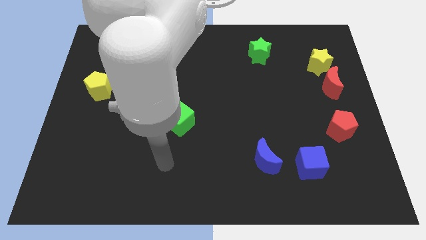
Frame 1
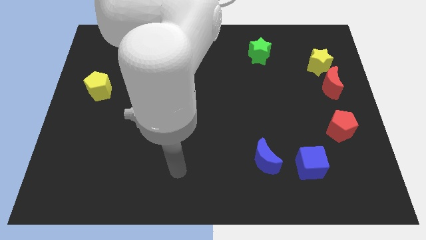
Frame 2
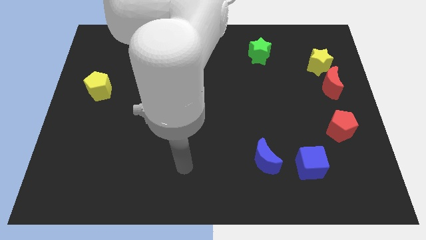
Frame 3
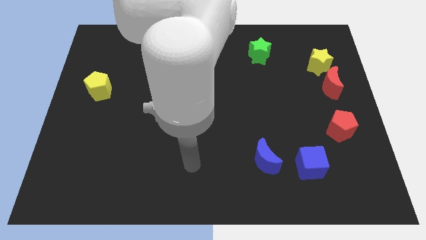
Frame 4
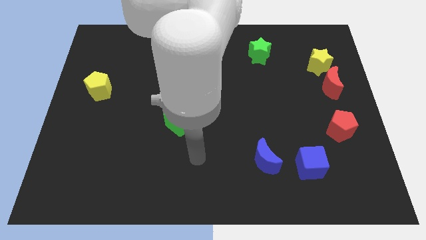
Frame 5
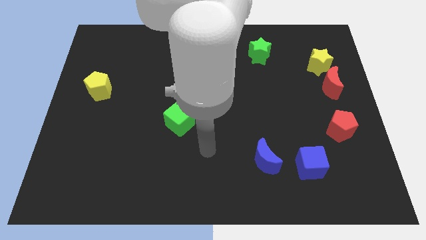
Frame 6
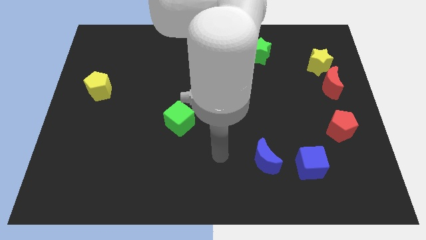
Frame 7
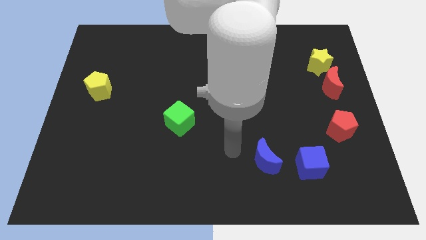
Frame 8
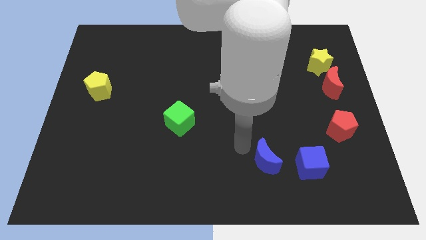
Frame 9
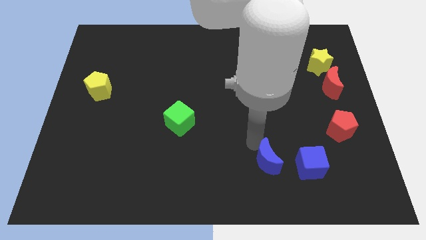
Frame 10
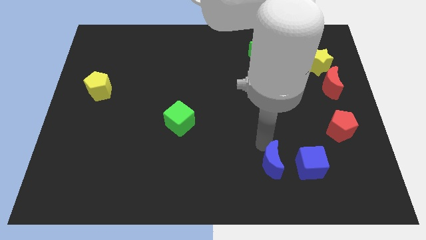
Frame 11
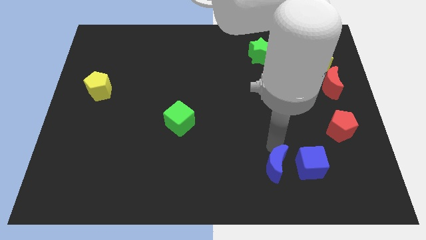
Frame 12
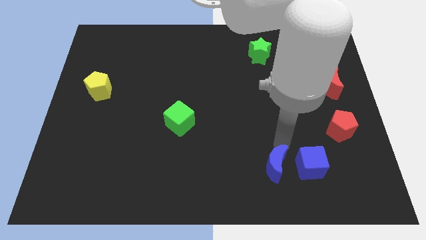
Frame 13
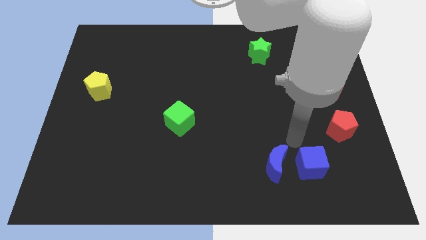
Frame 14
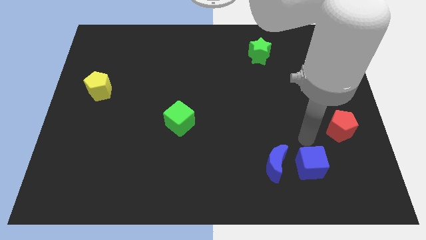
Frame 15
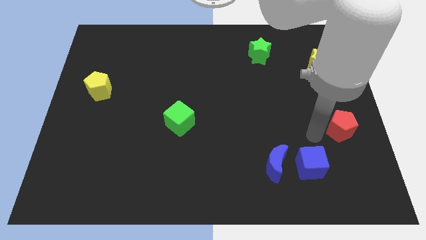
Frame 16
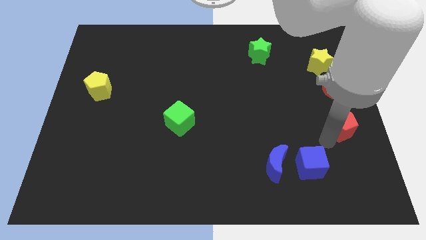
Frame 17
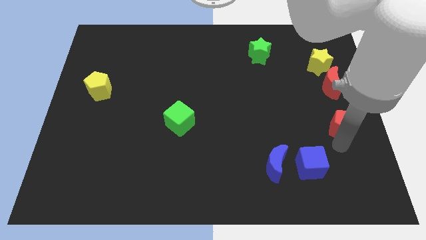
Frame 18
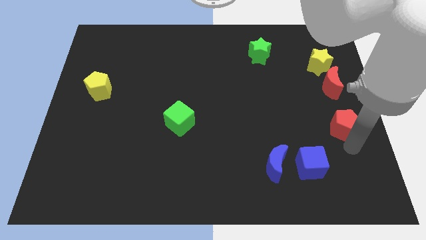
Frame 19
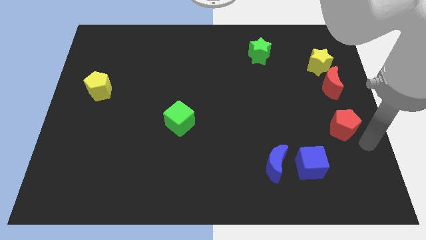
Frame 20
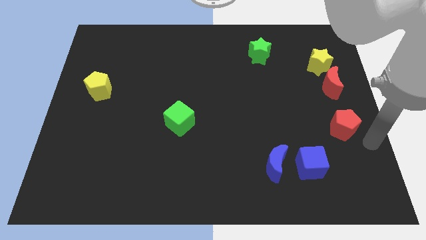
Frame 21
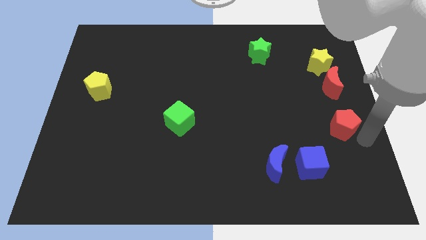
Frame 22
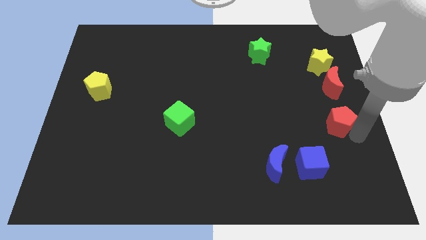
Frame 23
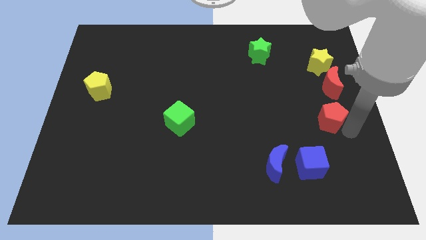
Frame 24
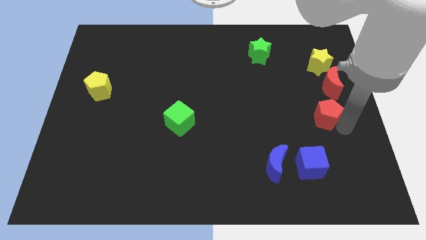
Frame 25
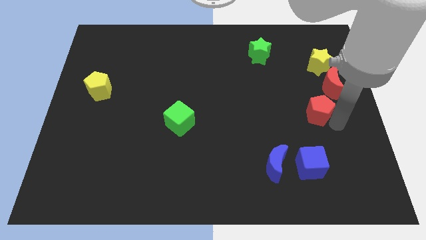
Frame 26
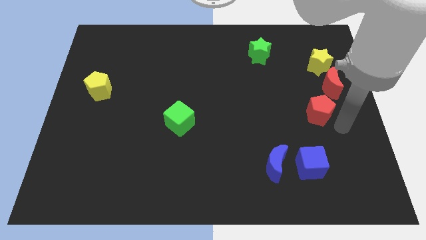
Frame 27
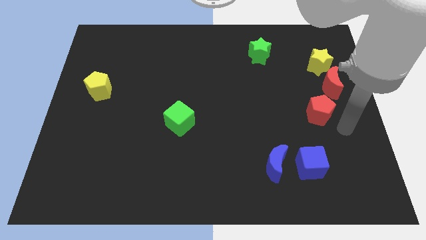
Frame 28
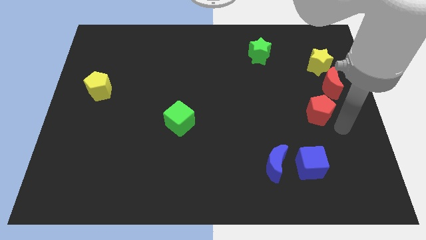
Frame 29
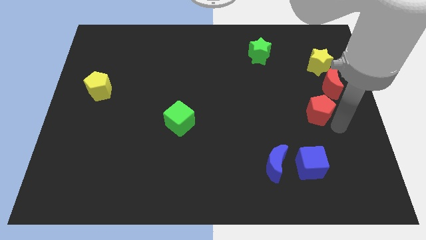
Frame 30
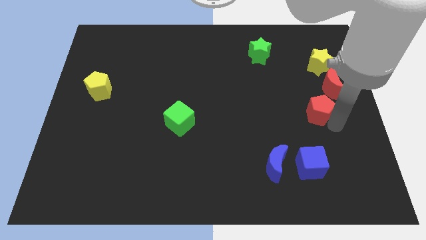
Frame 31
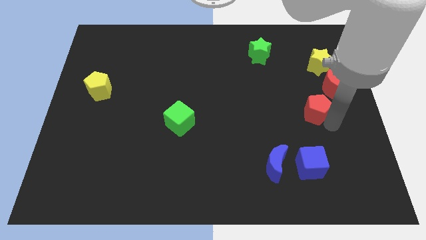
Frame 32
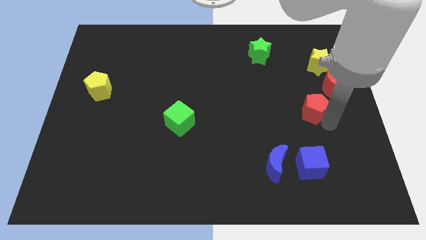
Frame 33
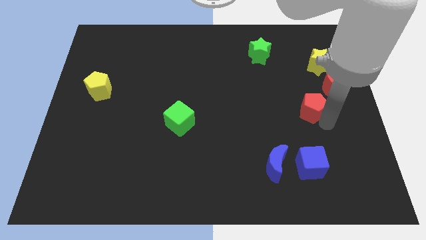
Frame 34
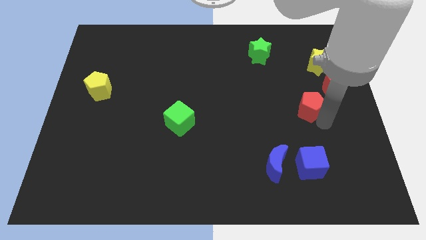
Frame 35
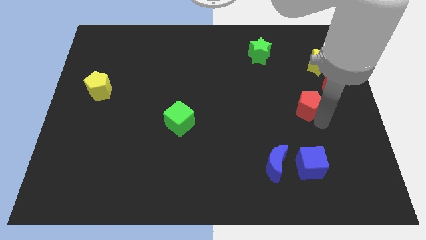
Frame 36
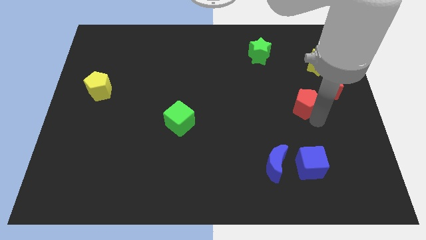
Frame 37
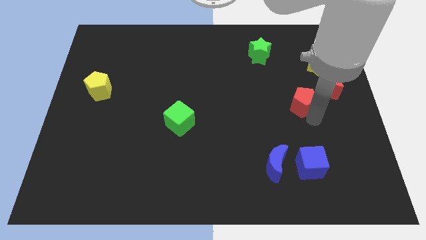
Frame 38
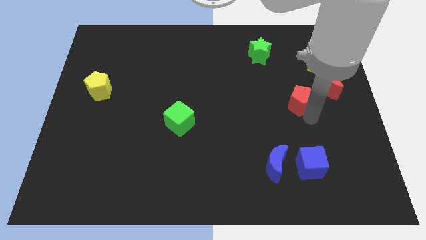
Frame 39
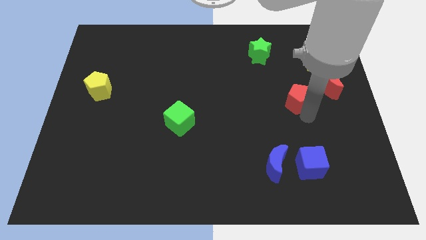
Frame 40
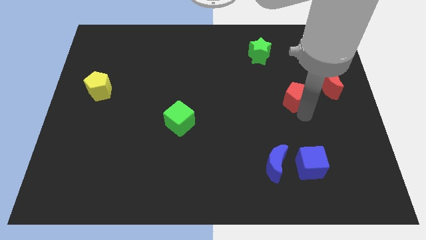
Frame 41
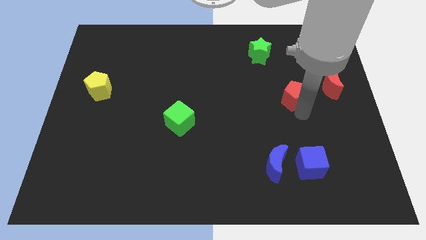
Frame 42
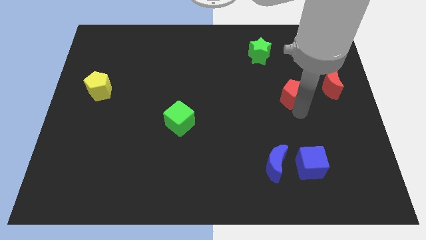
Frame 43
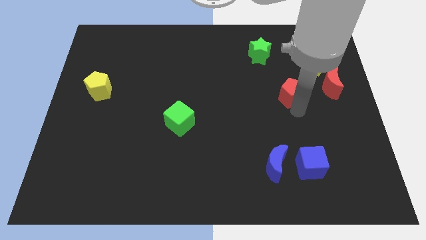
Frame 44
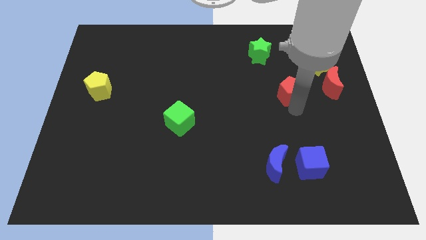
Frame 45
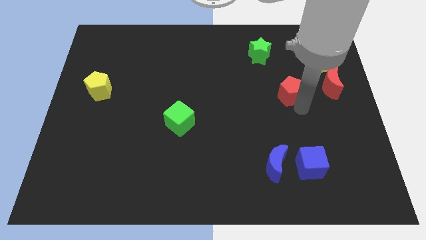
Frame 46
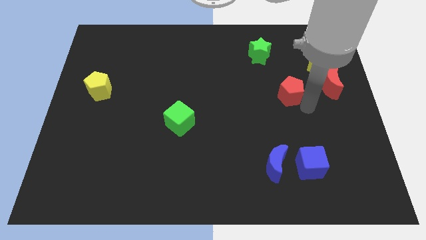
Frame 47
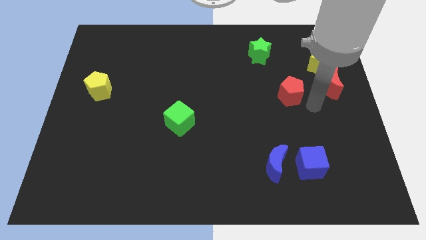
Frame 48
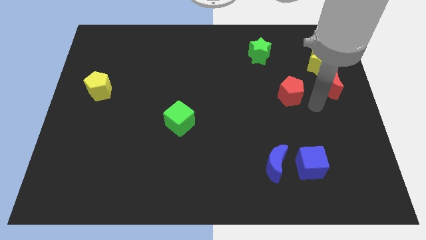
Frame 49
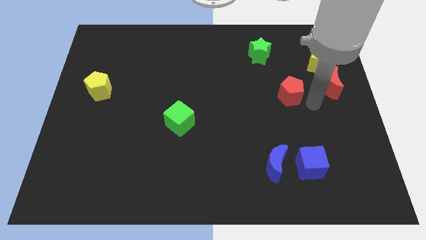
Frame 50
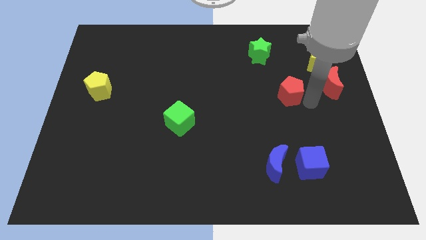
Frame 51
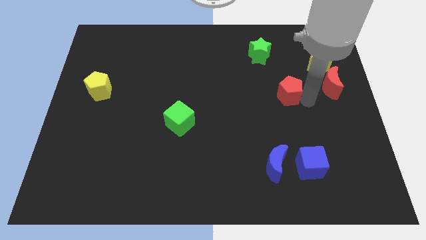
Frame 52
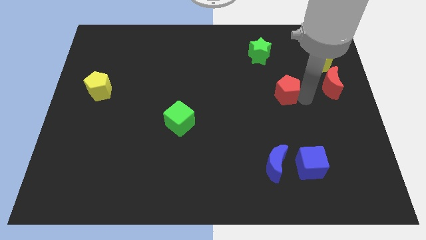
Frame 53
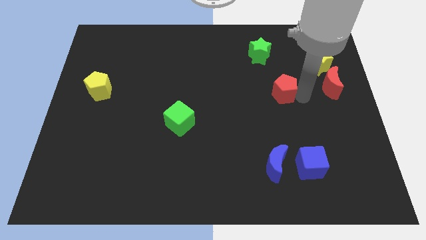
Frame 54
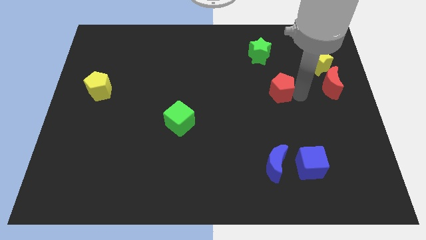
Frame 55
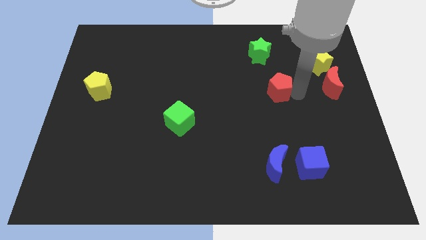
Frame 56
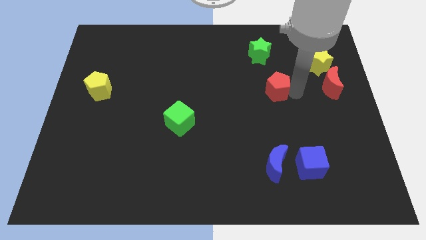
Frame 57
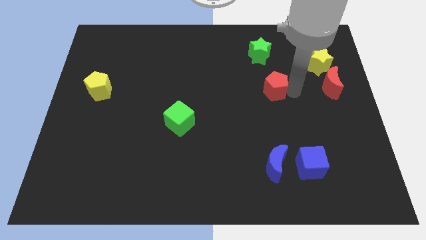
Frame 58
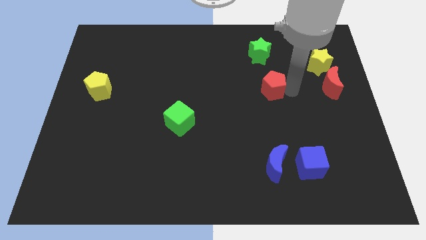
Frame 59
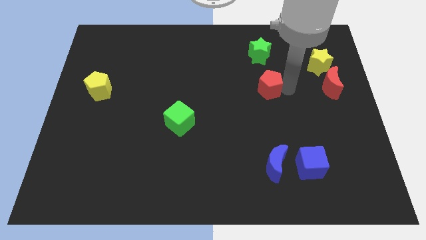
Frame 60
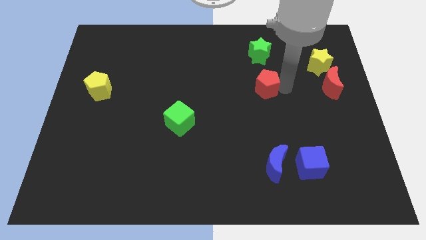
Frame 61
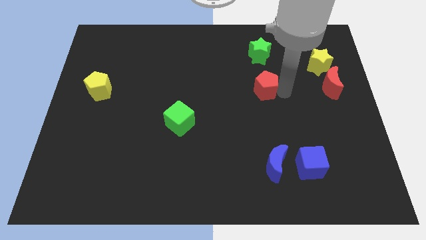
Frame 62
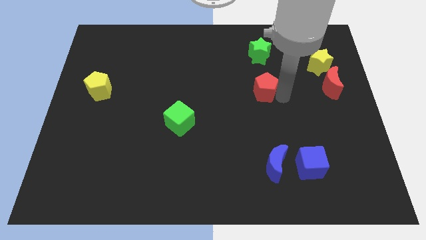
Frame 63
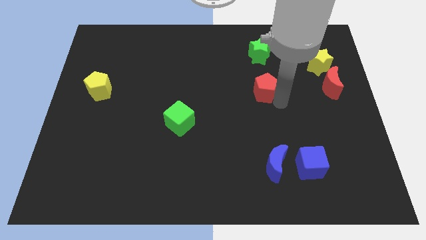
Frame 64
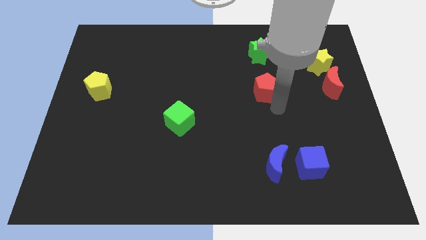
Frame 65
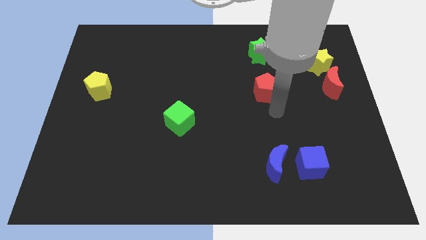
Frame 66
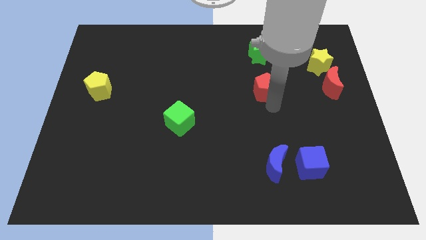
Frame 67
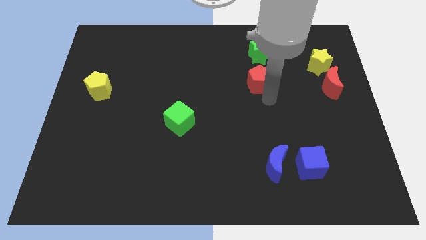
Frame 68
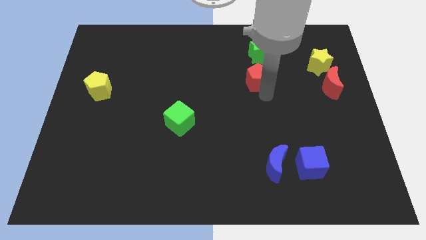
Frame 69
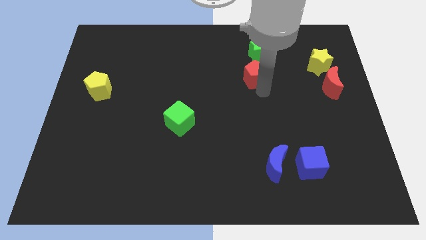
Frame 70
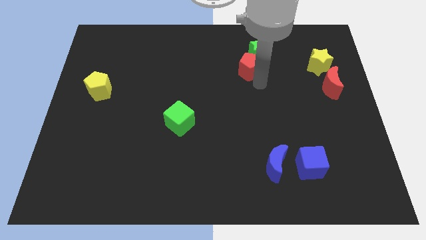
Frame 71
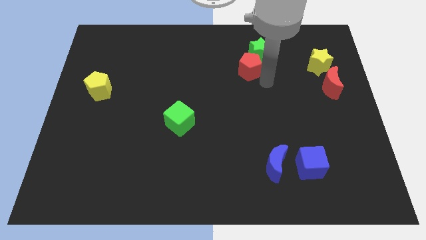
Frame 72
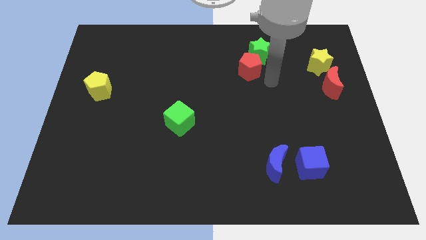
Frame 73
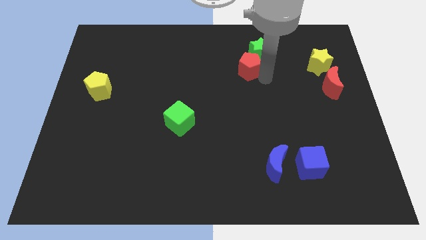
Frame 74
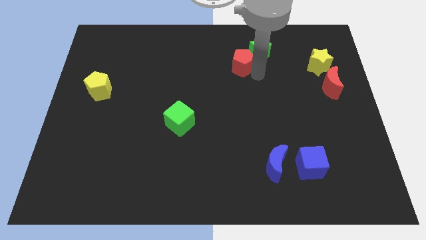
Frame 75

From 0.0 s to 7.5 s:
push the red pentagon to the left of the green star

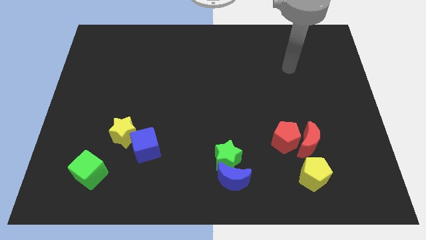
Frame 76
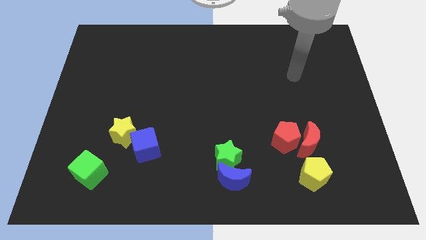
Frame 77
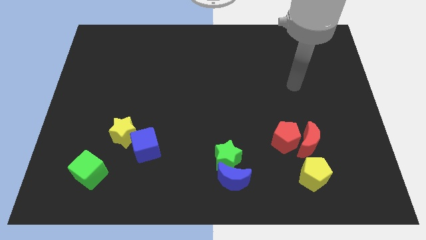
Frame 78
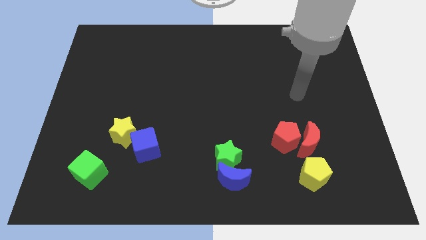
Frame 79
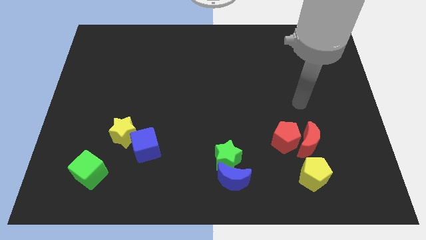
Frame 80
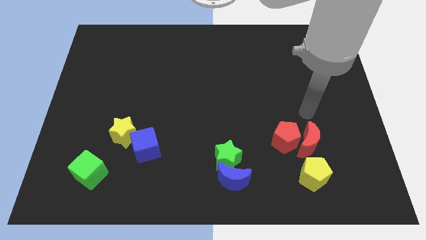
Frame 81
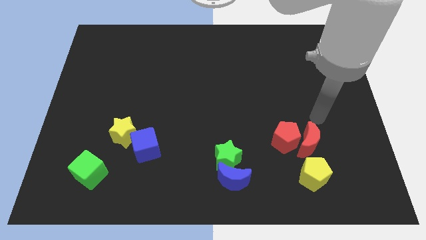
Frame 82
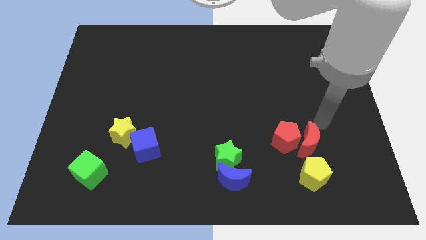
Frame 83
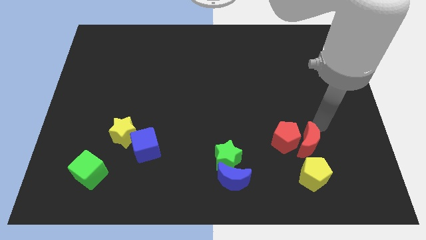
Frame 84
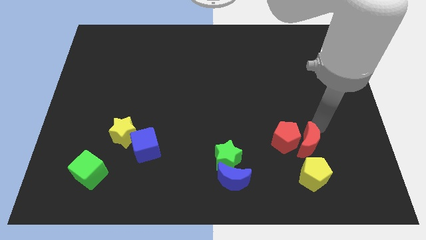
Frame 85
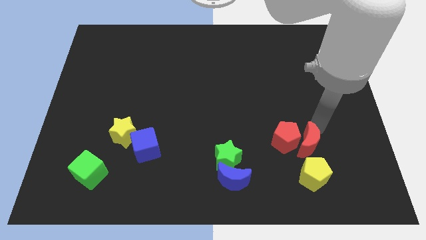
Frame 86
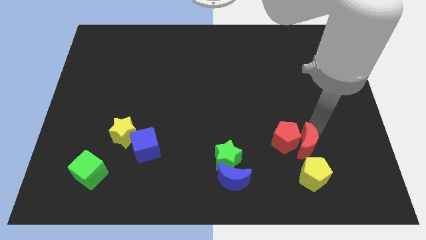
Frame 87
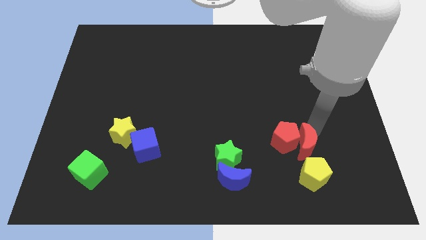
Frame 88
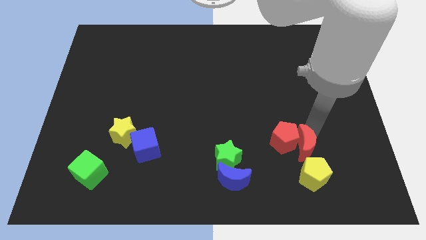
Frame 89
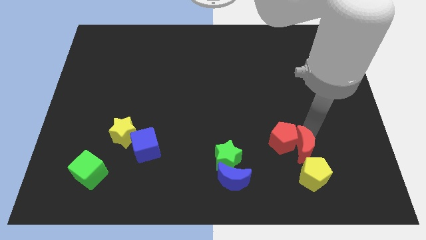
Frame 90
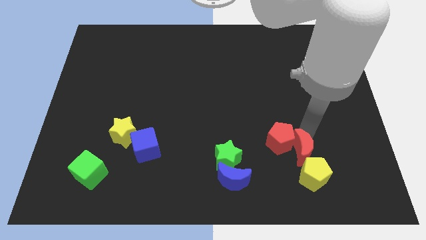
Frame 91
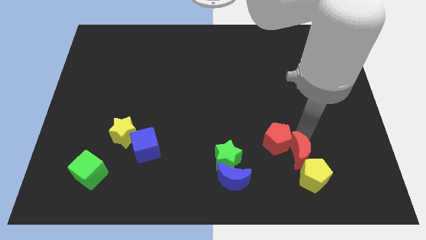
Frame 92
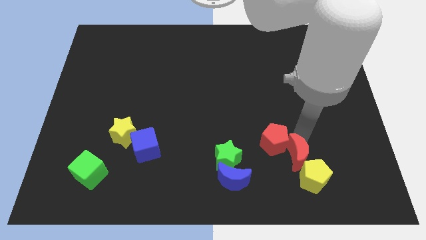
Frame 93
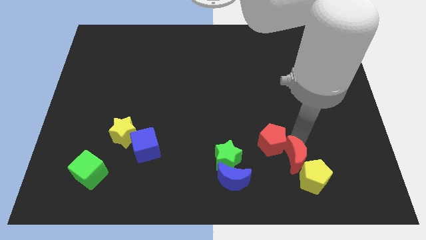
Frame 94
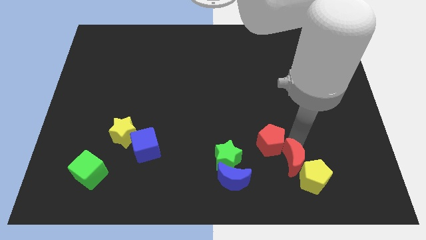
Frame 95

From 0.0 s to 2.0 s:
move the red moon to the right side of the blue moon
